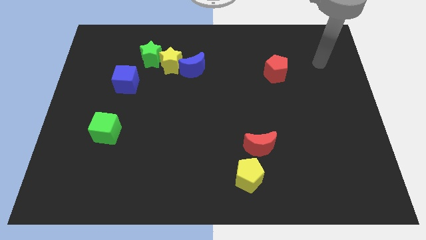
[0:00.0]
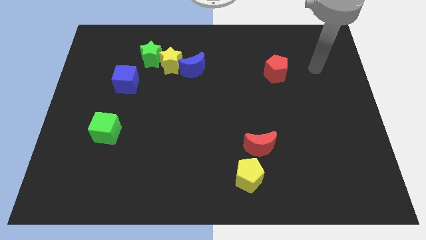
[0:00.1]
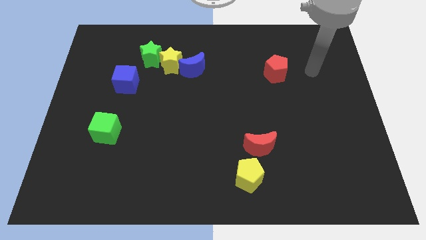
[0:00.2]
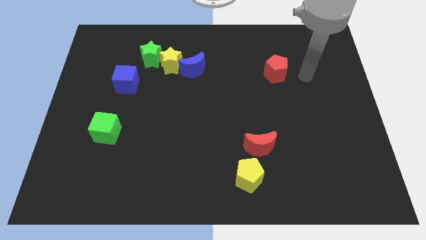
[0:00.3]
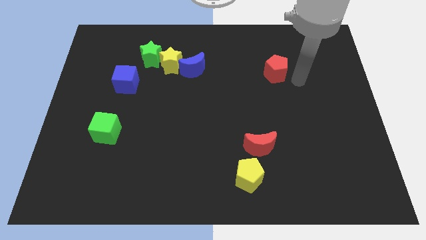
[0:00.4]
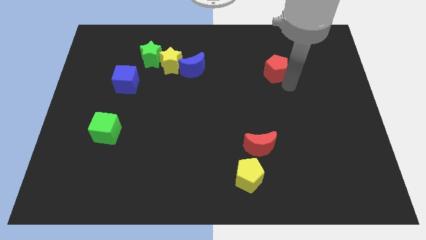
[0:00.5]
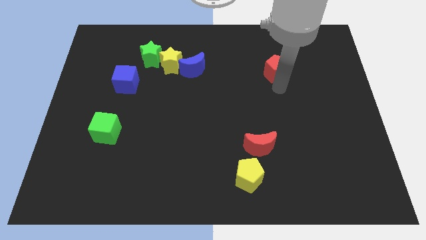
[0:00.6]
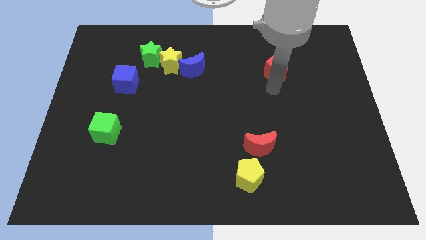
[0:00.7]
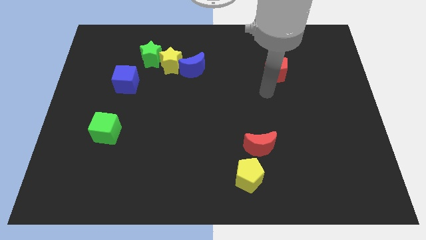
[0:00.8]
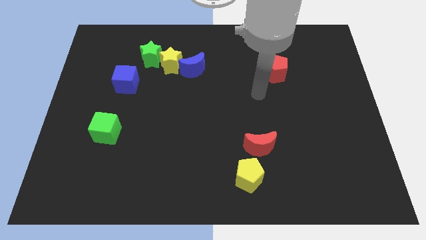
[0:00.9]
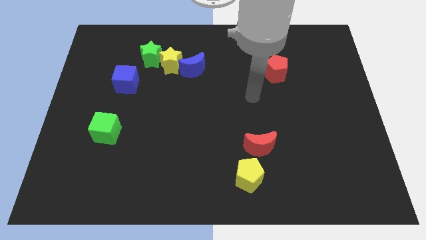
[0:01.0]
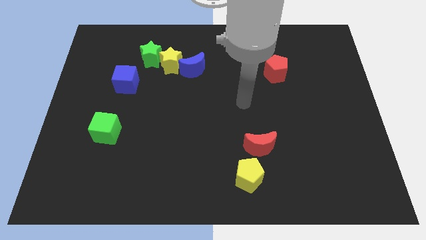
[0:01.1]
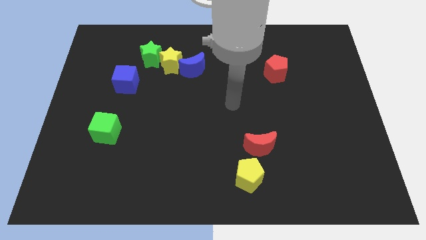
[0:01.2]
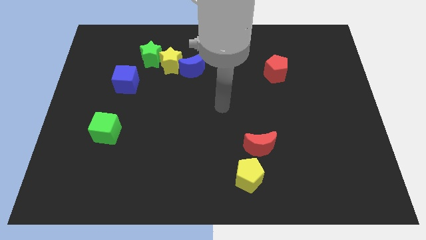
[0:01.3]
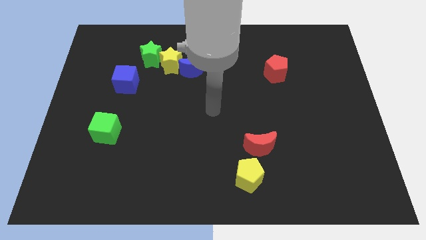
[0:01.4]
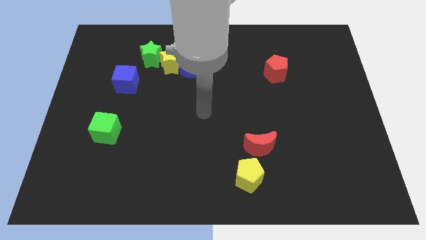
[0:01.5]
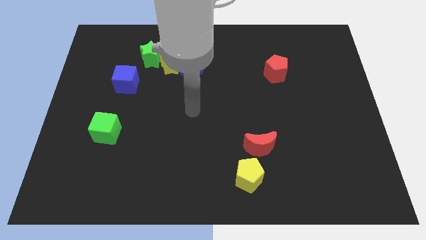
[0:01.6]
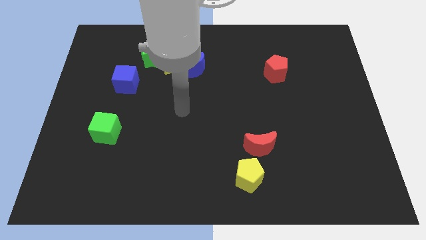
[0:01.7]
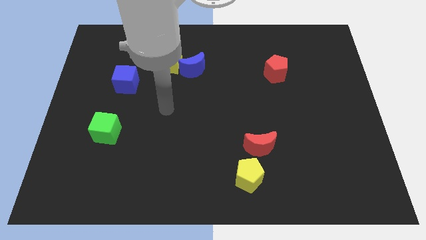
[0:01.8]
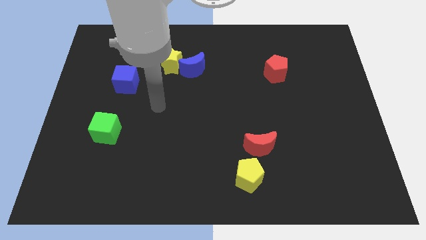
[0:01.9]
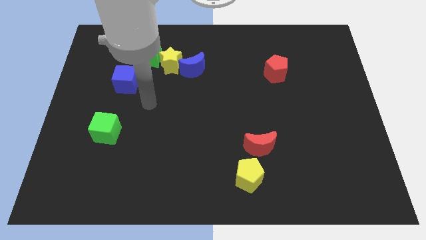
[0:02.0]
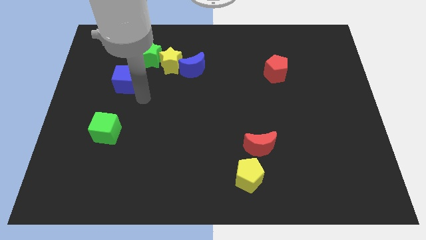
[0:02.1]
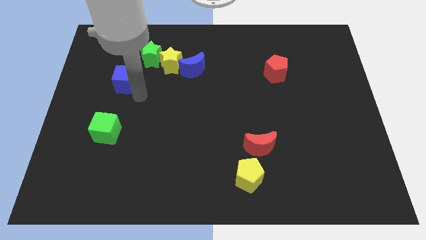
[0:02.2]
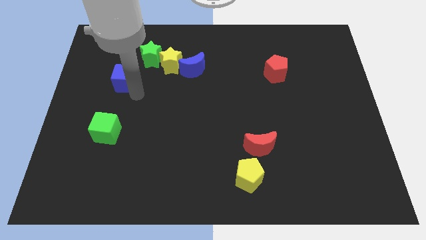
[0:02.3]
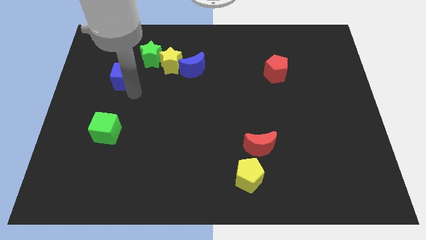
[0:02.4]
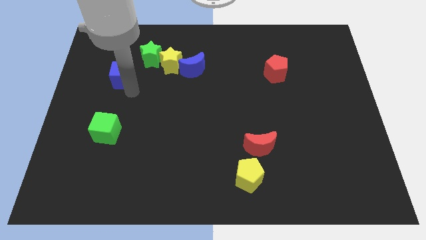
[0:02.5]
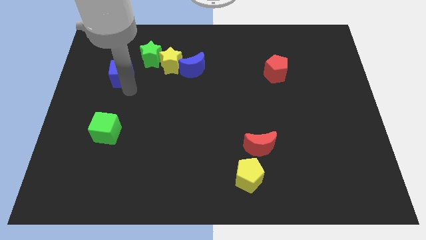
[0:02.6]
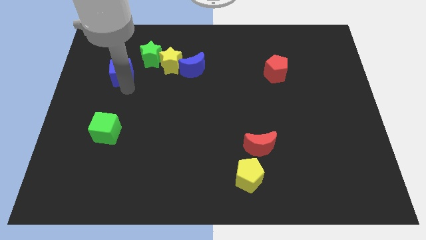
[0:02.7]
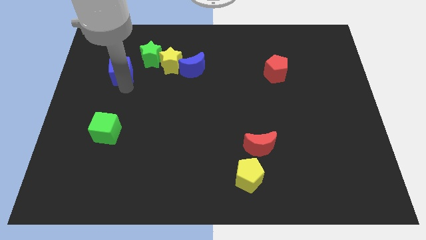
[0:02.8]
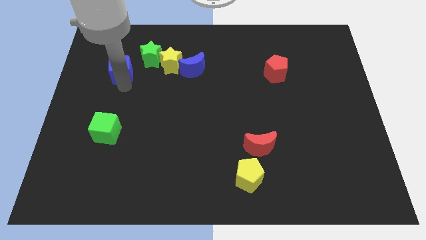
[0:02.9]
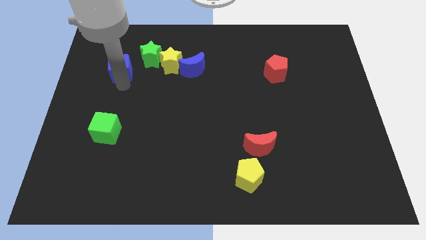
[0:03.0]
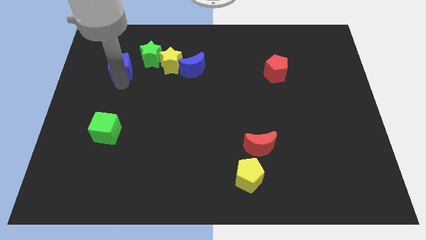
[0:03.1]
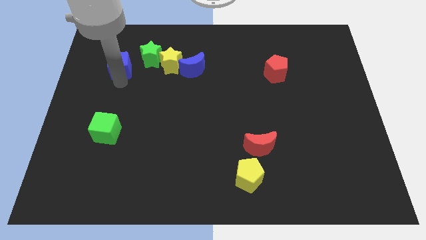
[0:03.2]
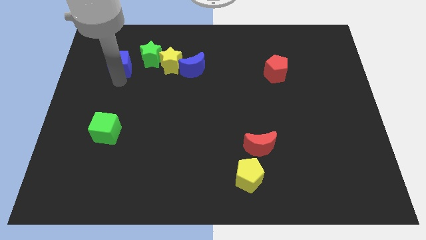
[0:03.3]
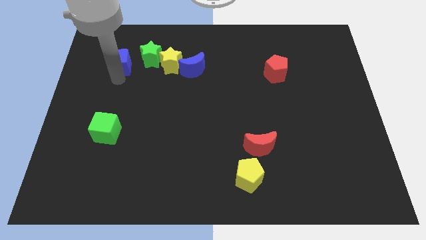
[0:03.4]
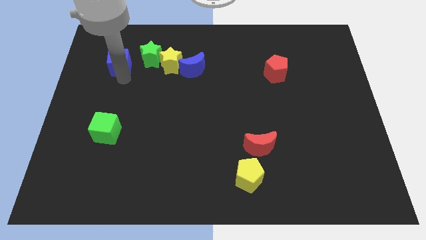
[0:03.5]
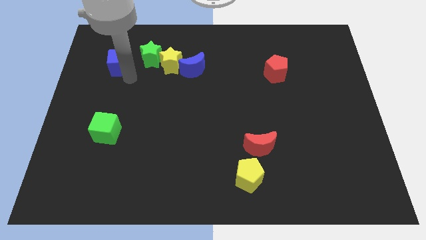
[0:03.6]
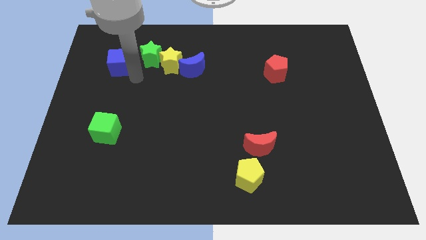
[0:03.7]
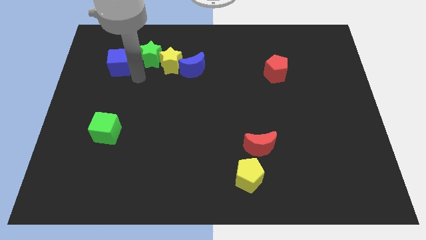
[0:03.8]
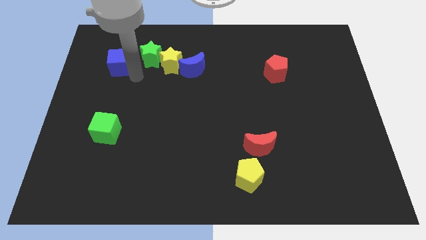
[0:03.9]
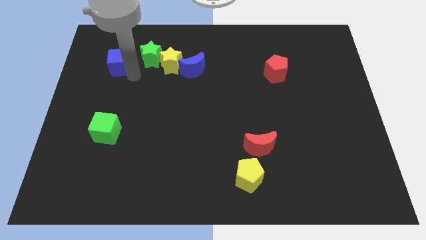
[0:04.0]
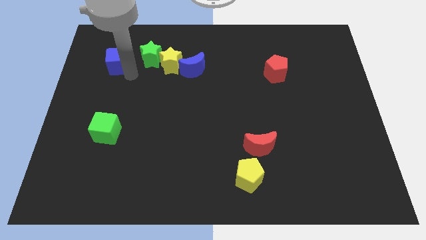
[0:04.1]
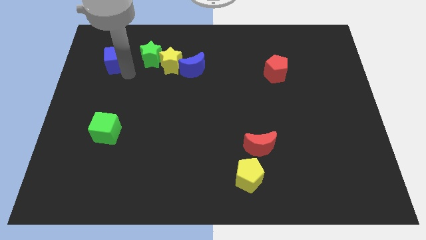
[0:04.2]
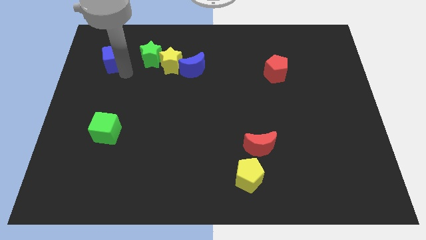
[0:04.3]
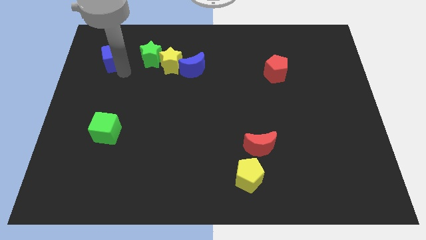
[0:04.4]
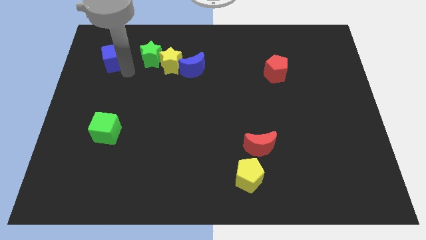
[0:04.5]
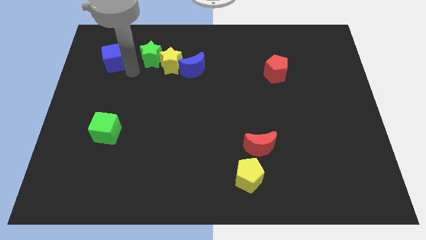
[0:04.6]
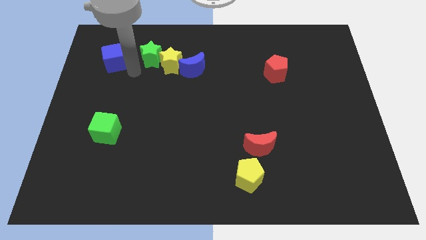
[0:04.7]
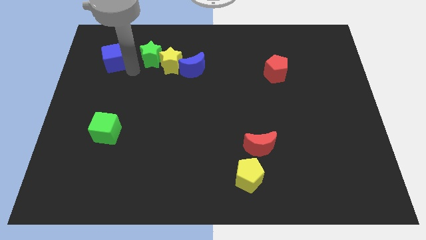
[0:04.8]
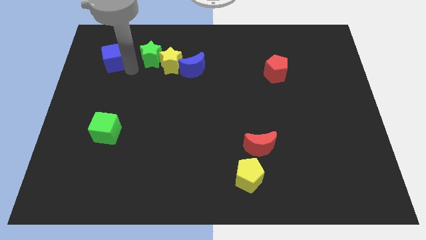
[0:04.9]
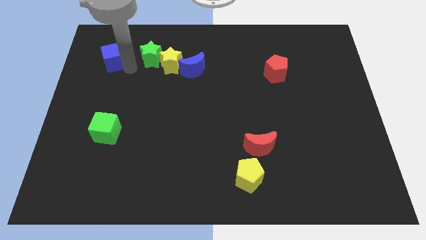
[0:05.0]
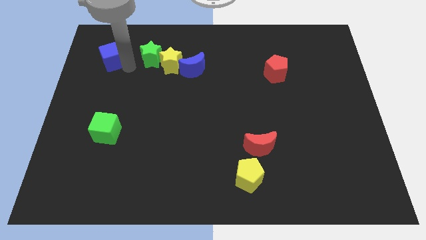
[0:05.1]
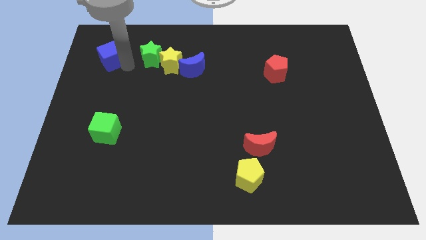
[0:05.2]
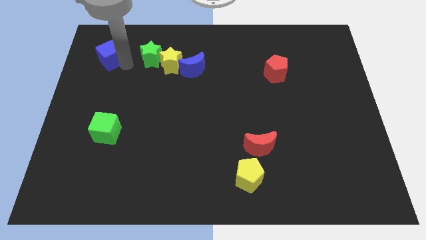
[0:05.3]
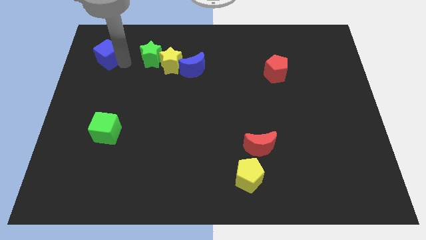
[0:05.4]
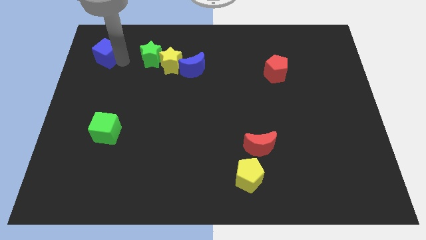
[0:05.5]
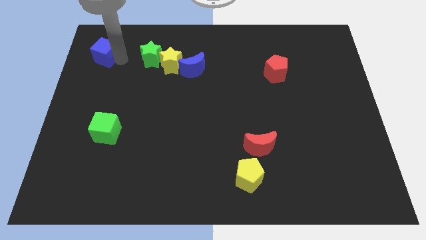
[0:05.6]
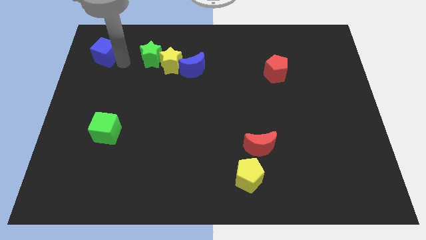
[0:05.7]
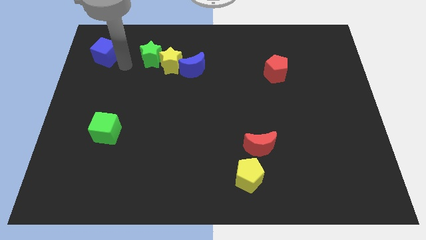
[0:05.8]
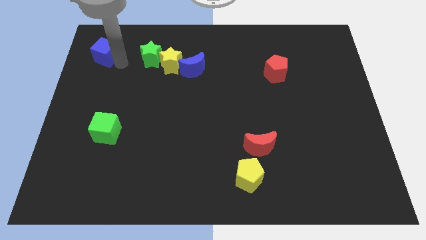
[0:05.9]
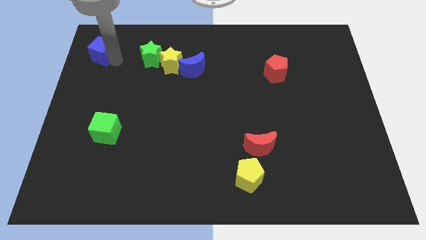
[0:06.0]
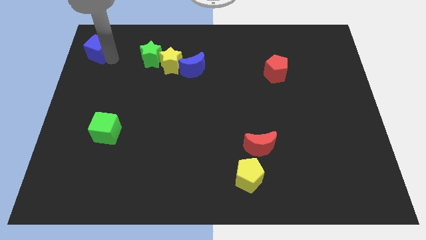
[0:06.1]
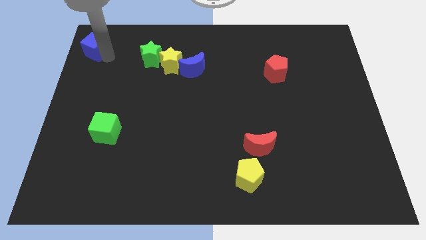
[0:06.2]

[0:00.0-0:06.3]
slide the blue cube to the top left

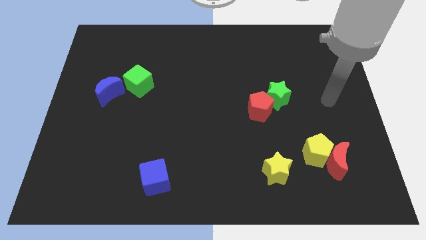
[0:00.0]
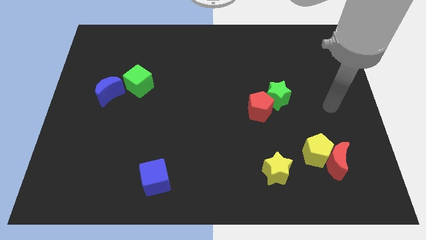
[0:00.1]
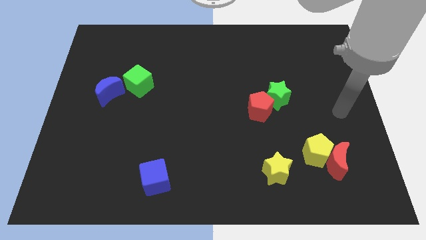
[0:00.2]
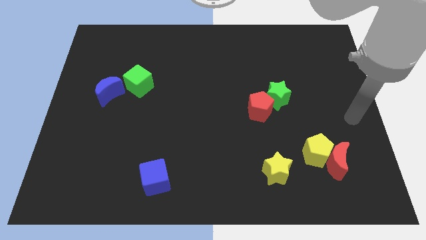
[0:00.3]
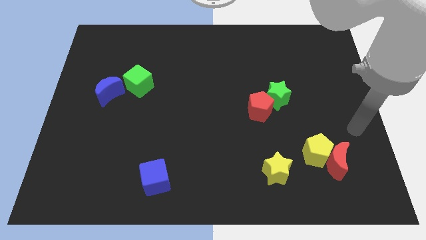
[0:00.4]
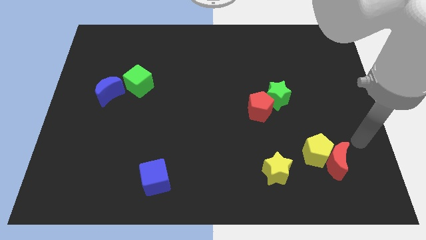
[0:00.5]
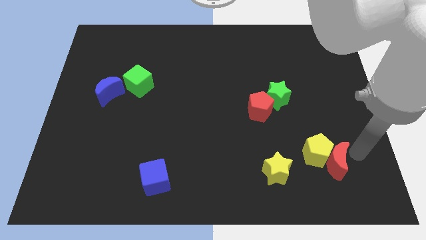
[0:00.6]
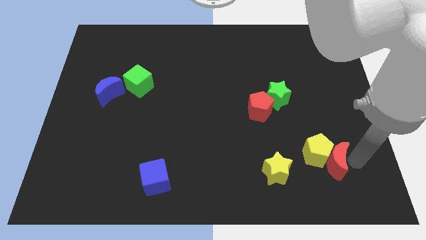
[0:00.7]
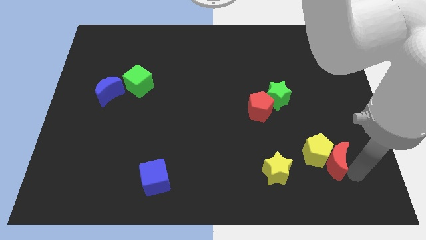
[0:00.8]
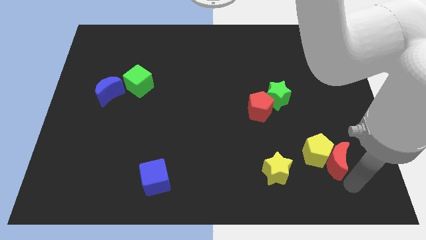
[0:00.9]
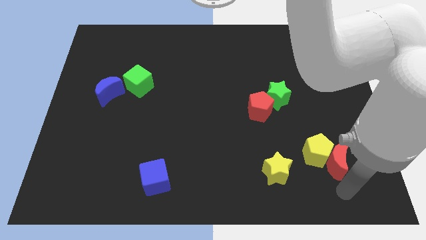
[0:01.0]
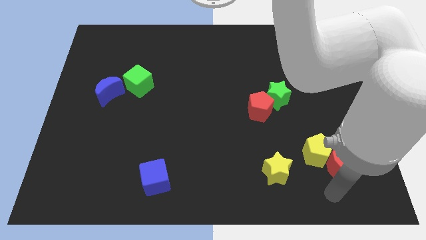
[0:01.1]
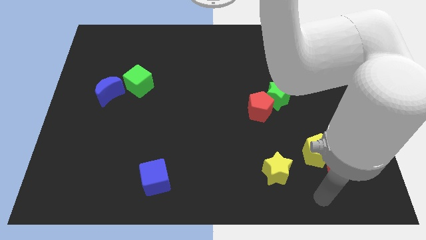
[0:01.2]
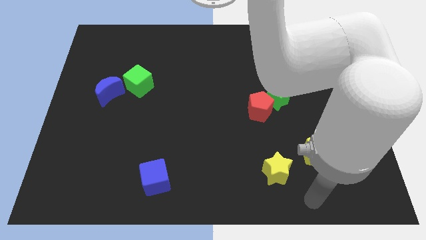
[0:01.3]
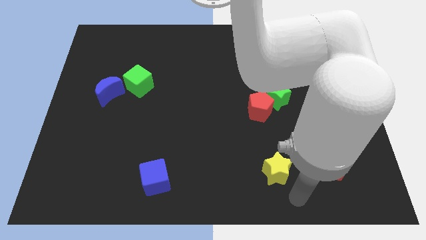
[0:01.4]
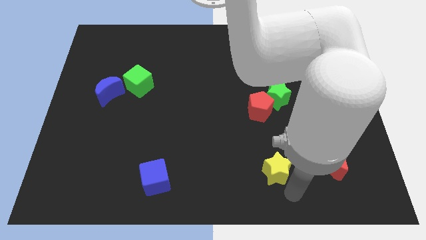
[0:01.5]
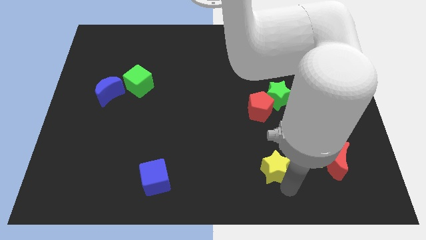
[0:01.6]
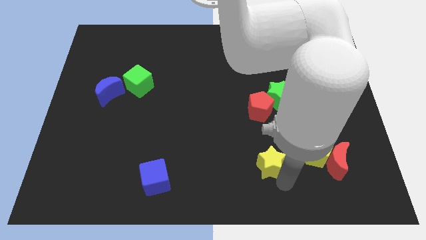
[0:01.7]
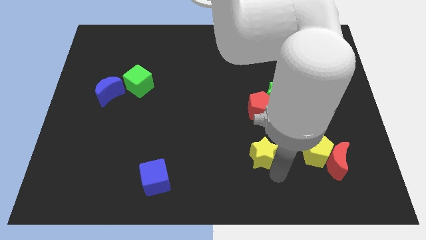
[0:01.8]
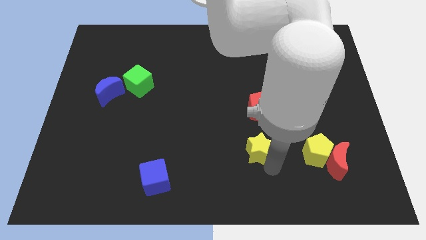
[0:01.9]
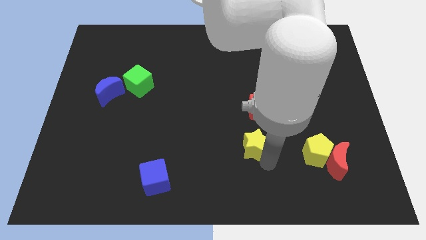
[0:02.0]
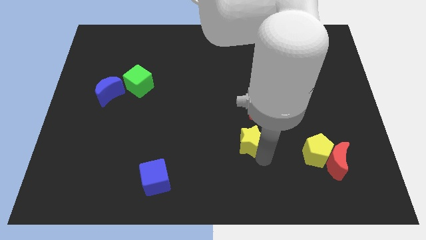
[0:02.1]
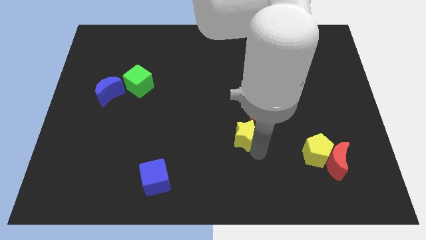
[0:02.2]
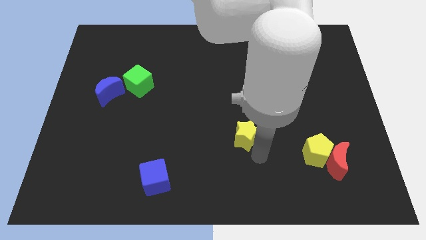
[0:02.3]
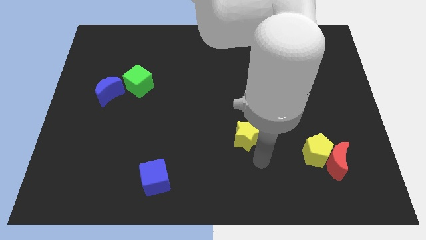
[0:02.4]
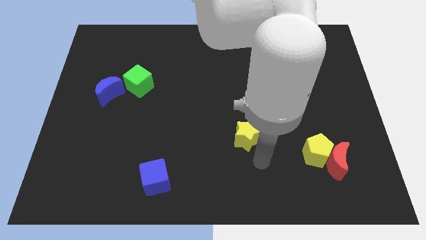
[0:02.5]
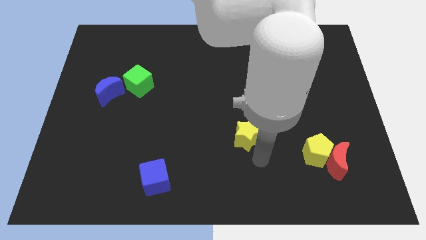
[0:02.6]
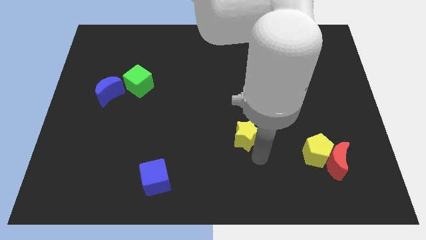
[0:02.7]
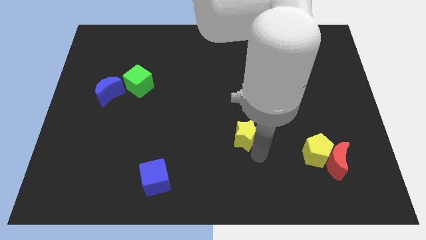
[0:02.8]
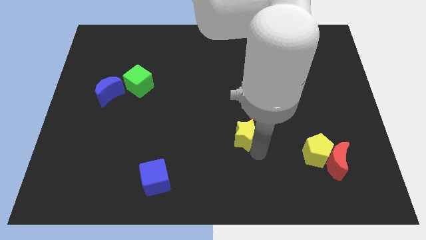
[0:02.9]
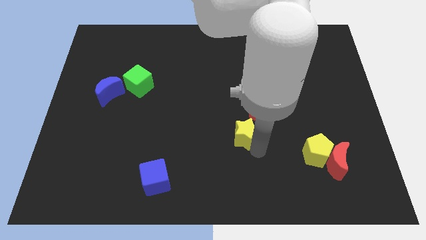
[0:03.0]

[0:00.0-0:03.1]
slide the yellow star to the center of the board
